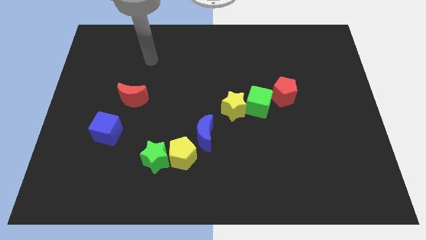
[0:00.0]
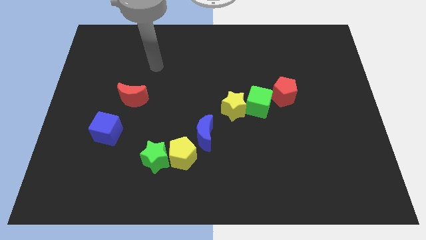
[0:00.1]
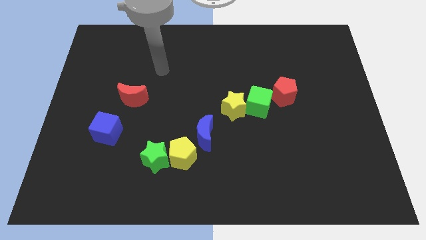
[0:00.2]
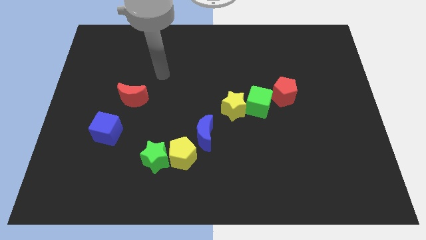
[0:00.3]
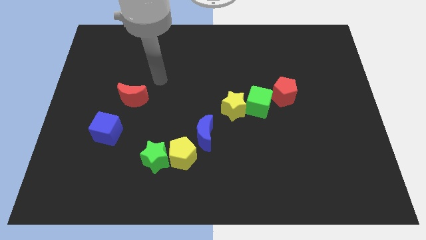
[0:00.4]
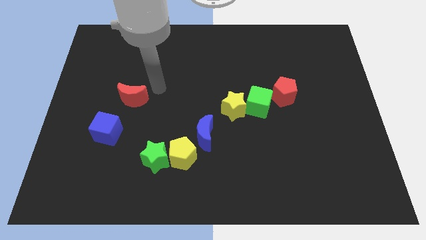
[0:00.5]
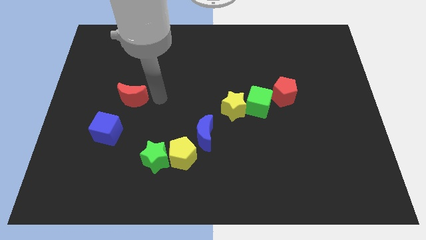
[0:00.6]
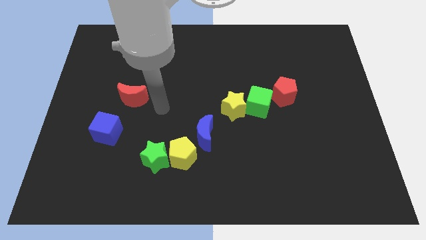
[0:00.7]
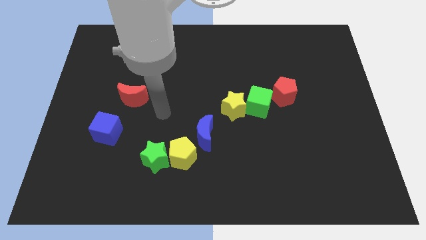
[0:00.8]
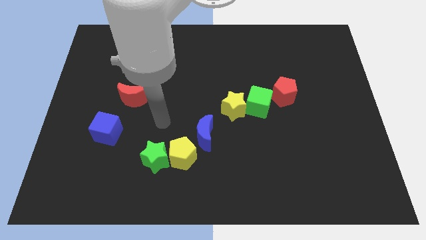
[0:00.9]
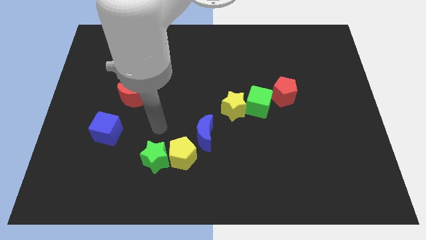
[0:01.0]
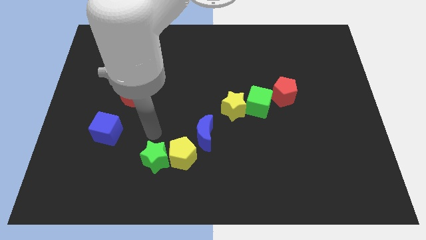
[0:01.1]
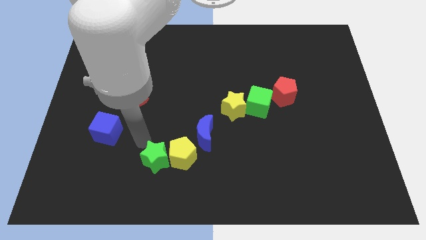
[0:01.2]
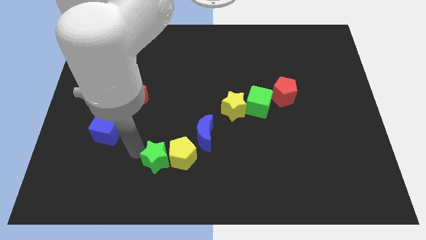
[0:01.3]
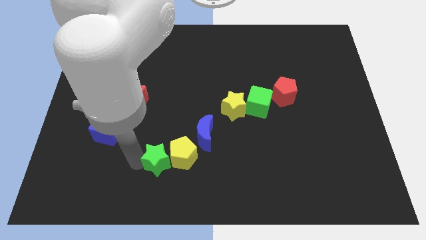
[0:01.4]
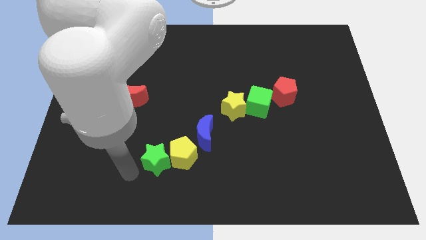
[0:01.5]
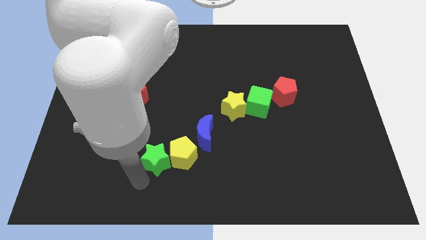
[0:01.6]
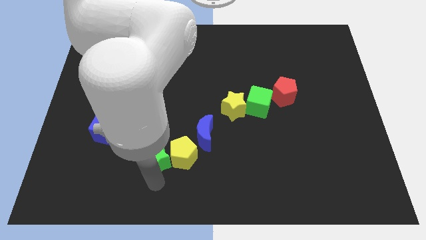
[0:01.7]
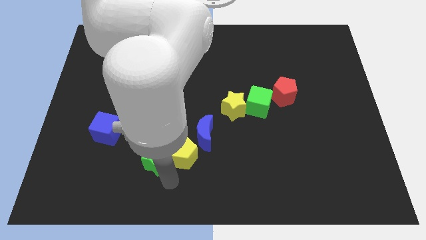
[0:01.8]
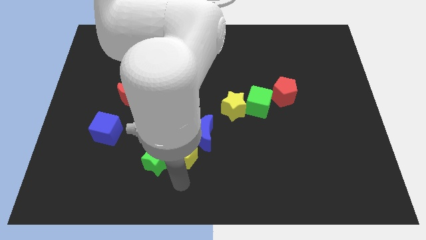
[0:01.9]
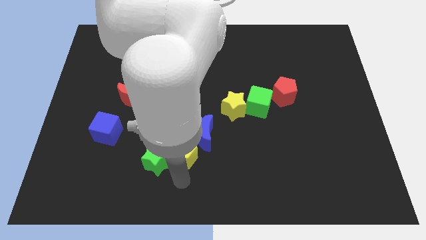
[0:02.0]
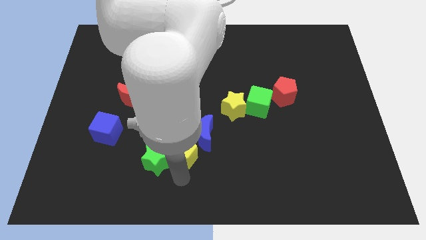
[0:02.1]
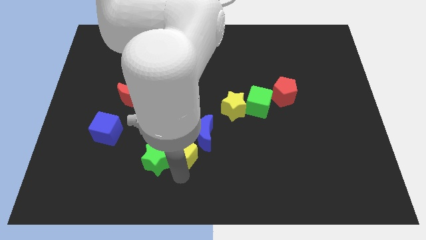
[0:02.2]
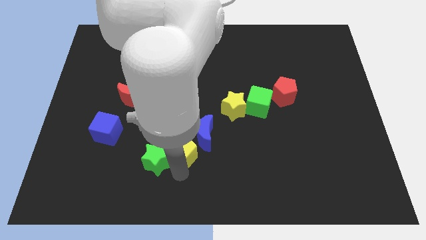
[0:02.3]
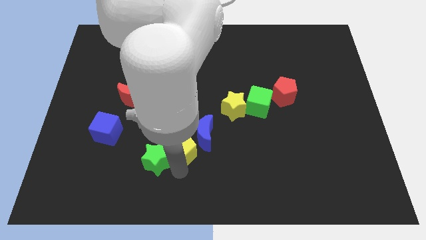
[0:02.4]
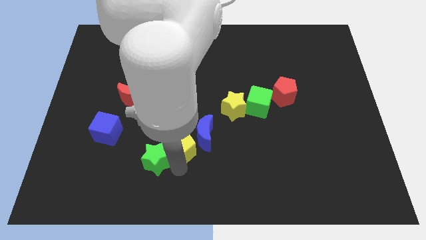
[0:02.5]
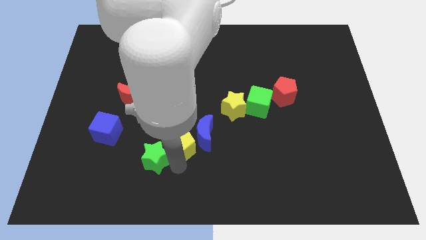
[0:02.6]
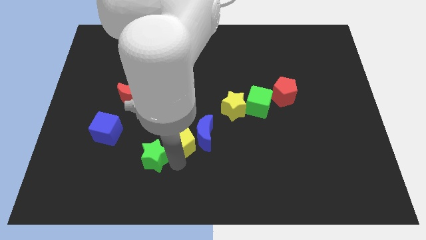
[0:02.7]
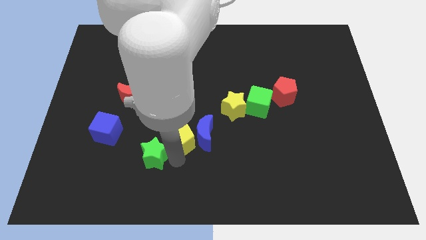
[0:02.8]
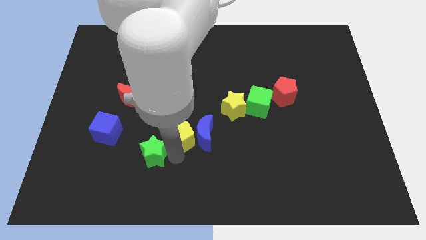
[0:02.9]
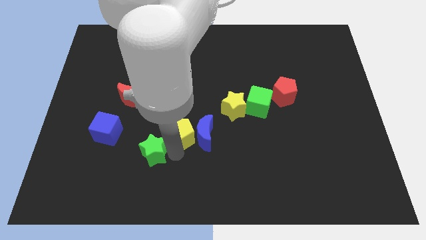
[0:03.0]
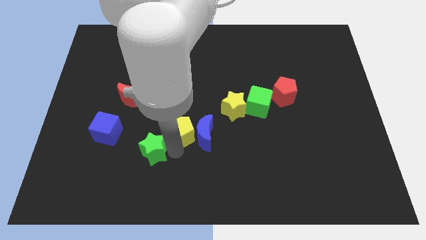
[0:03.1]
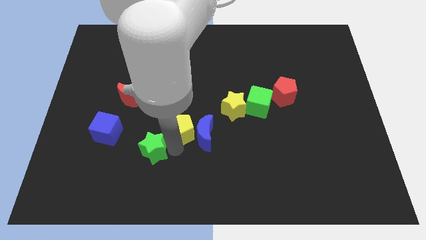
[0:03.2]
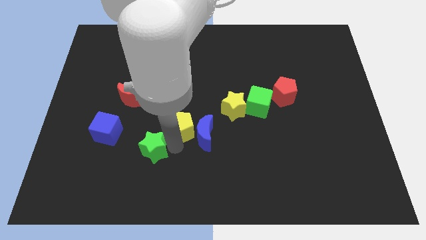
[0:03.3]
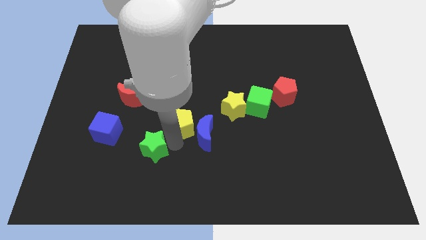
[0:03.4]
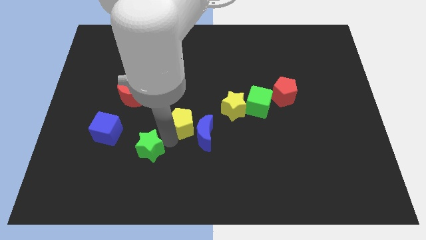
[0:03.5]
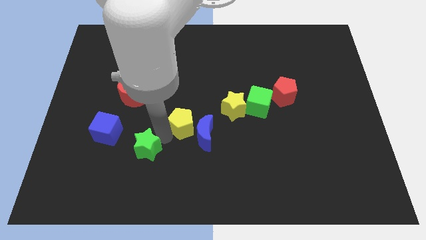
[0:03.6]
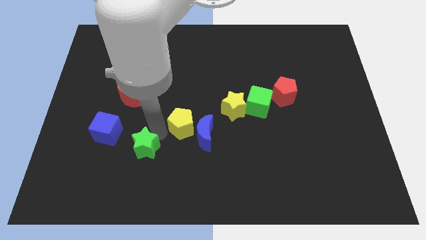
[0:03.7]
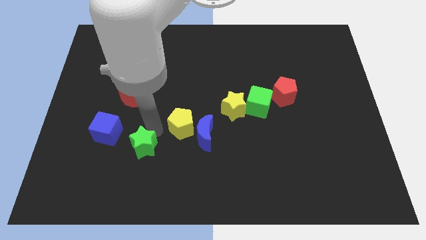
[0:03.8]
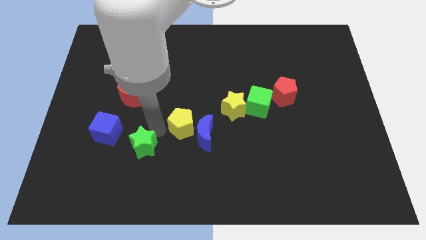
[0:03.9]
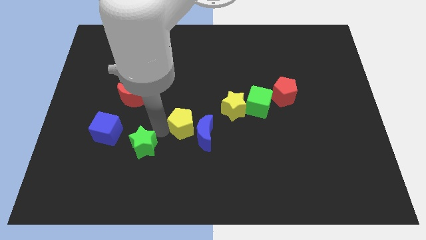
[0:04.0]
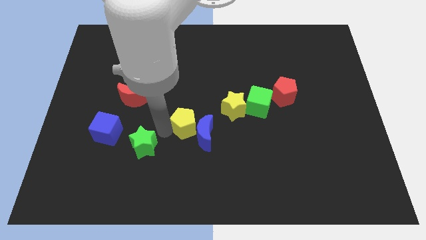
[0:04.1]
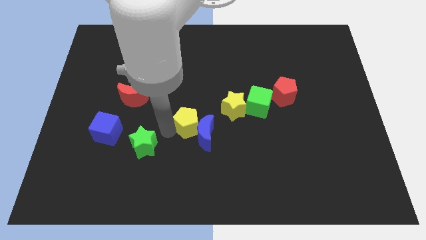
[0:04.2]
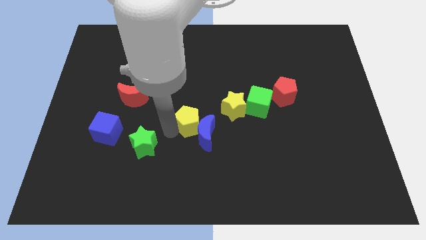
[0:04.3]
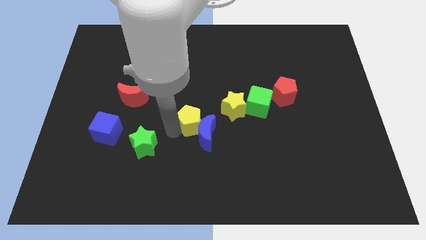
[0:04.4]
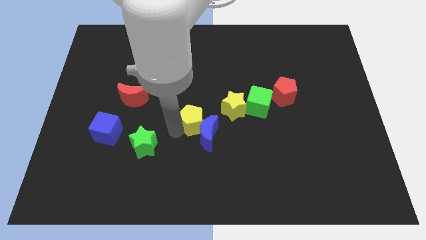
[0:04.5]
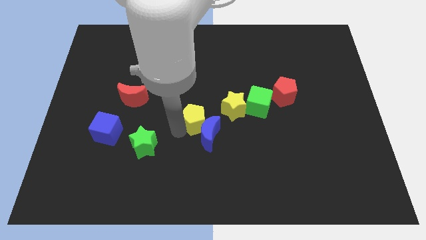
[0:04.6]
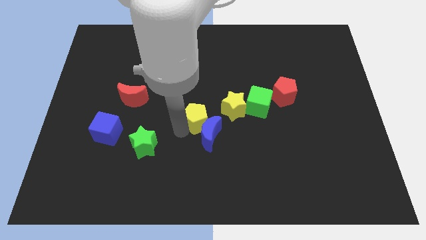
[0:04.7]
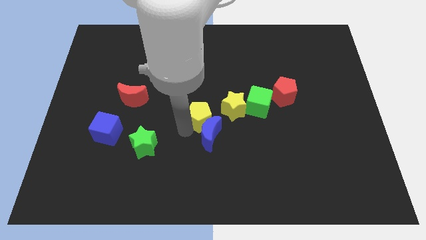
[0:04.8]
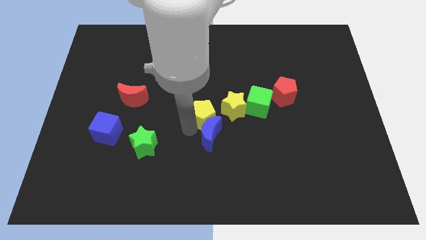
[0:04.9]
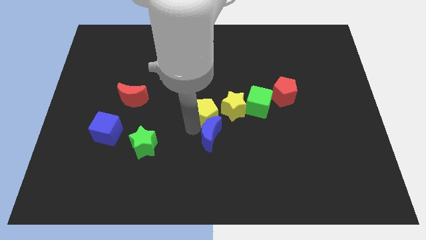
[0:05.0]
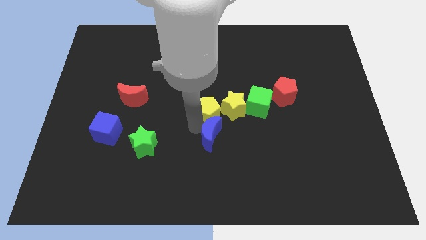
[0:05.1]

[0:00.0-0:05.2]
move the yellow pentagon to the yellow star

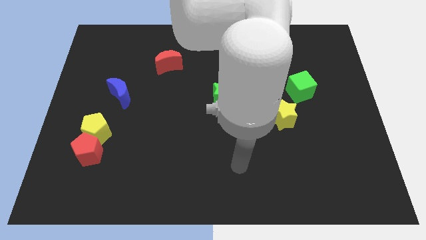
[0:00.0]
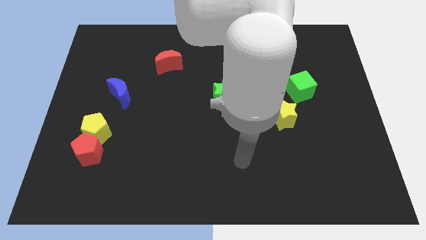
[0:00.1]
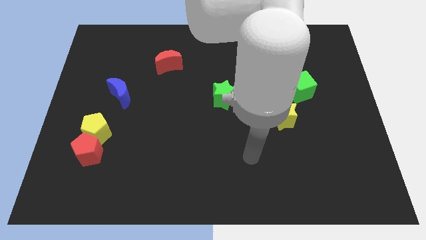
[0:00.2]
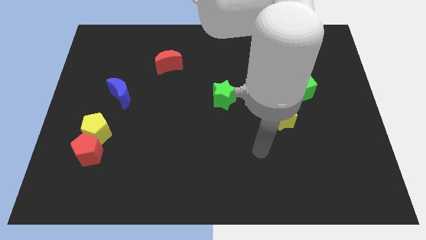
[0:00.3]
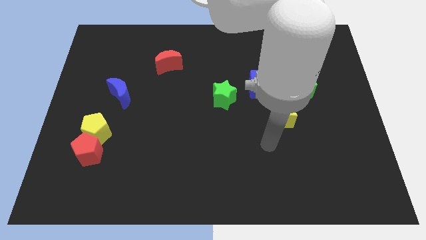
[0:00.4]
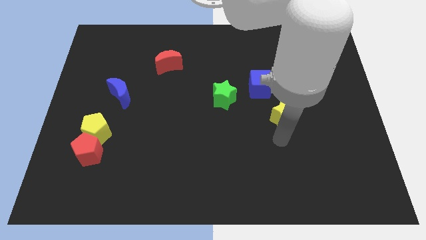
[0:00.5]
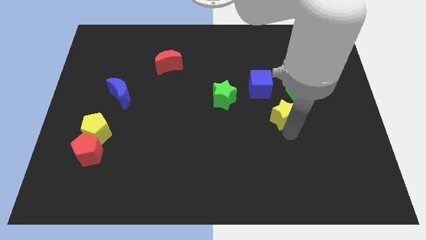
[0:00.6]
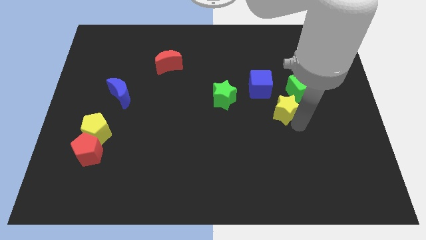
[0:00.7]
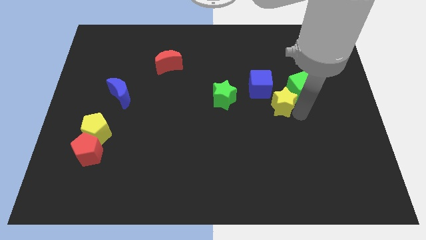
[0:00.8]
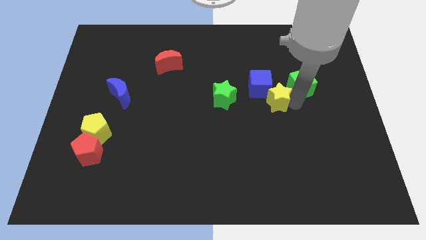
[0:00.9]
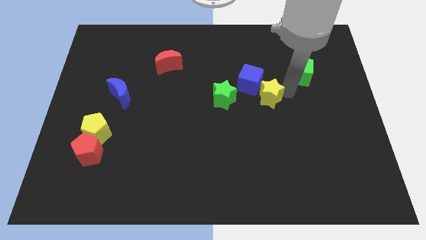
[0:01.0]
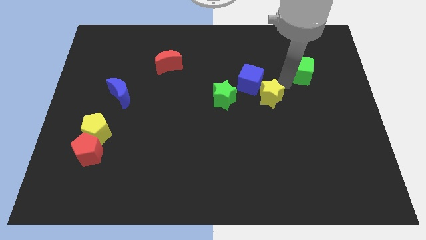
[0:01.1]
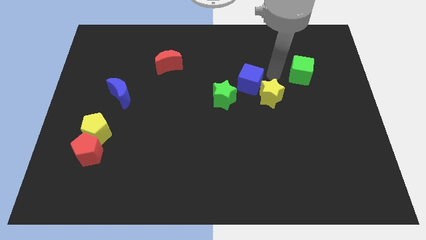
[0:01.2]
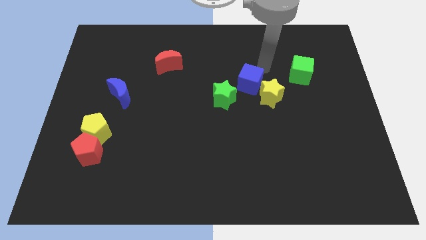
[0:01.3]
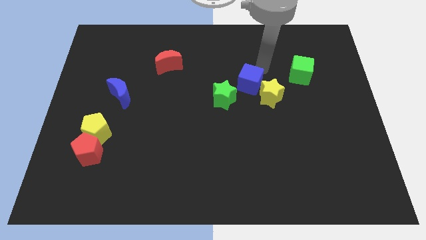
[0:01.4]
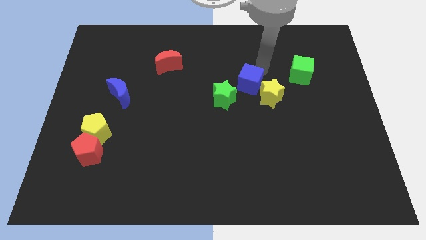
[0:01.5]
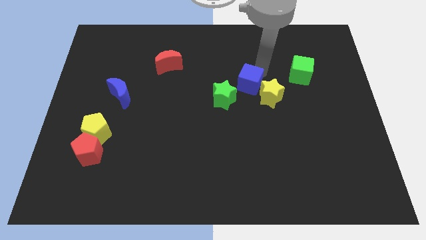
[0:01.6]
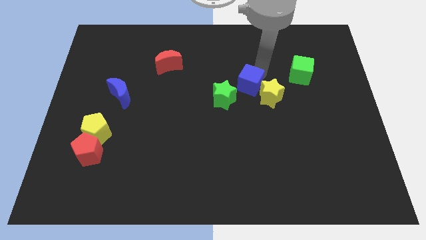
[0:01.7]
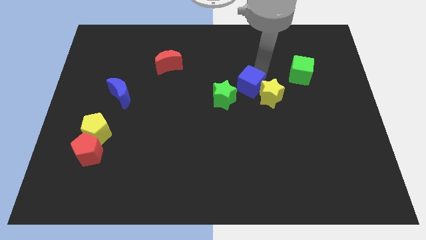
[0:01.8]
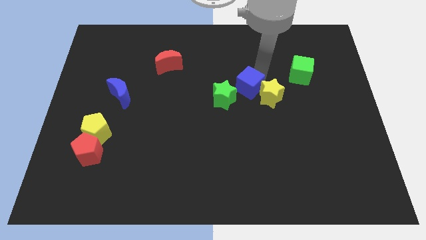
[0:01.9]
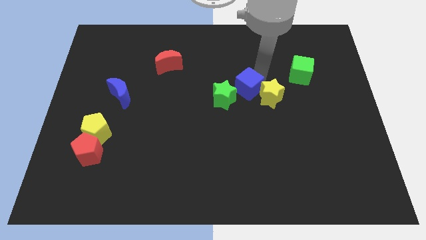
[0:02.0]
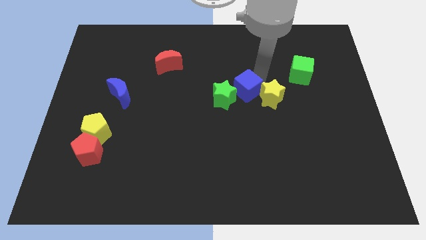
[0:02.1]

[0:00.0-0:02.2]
move the blue cube to the green star
